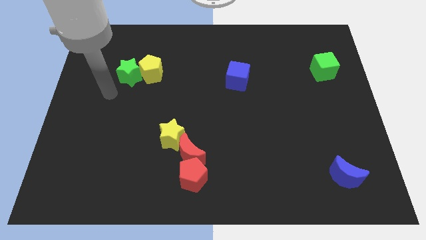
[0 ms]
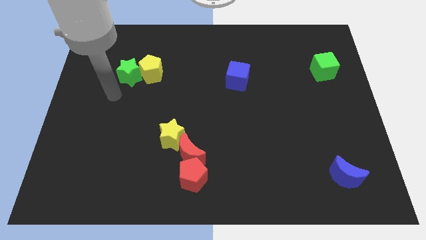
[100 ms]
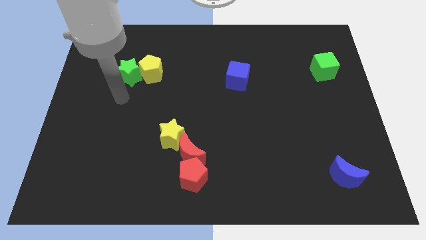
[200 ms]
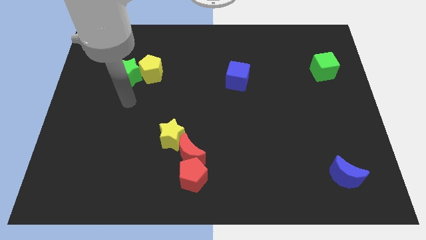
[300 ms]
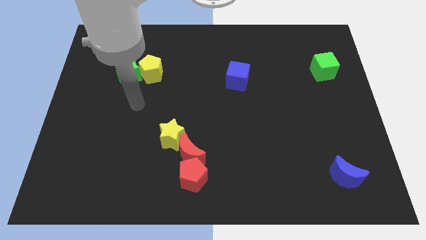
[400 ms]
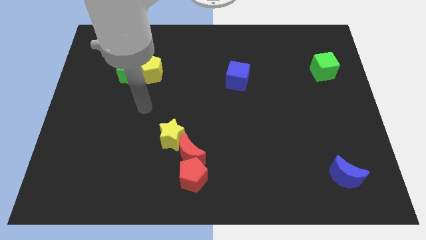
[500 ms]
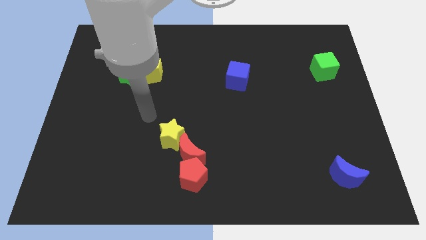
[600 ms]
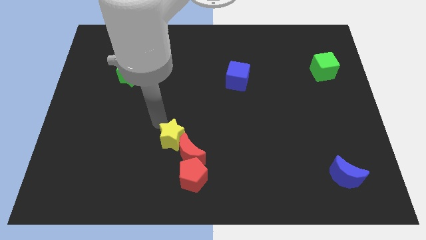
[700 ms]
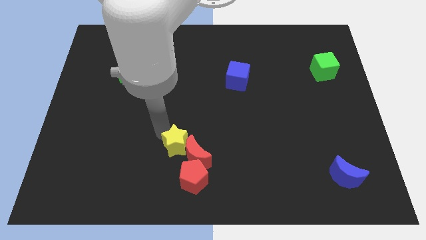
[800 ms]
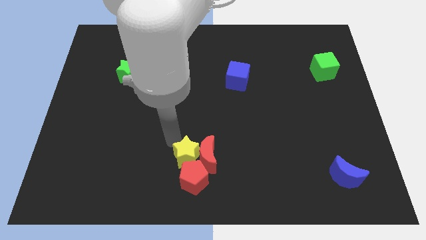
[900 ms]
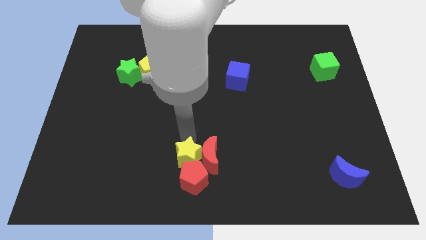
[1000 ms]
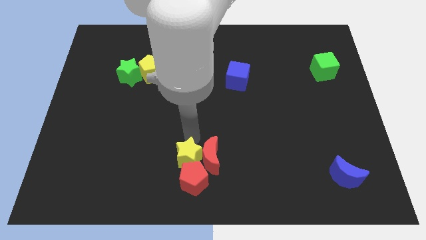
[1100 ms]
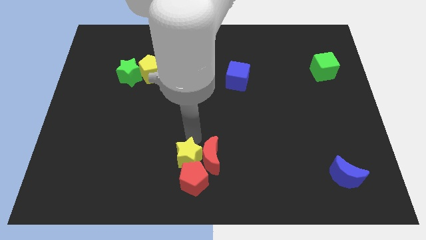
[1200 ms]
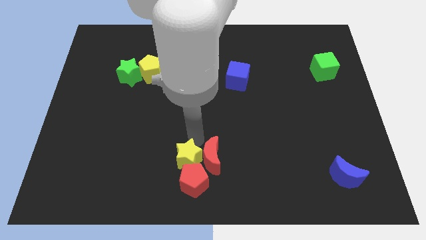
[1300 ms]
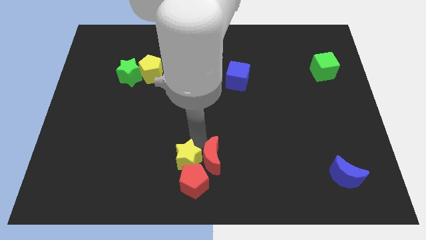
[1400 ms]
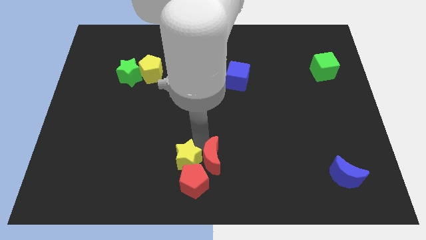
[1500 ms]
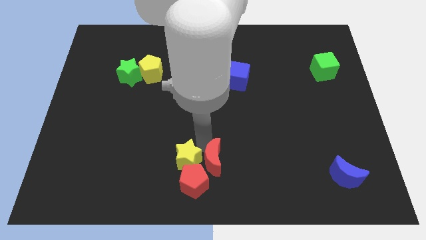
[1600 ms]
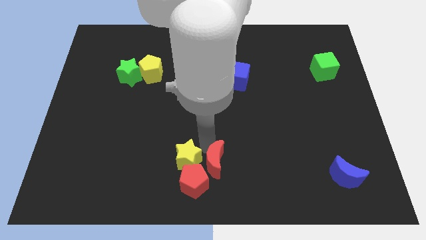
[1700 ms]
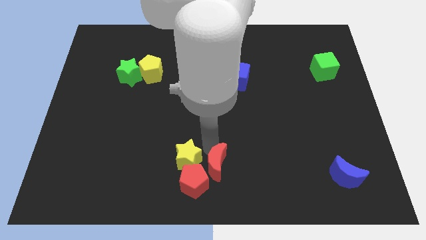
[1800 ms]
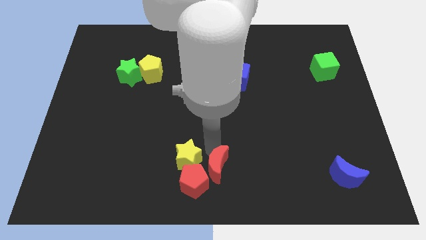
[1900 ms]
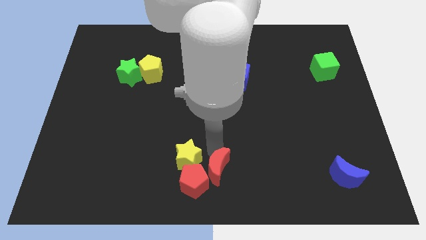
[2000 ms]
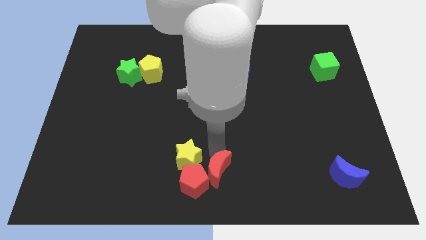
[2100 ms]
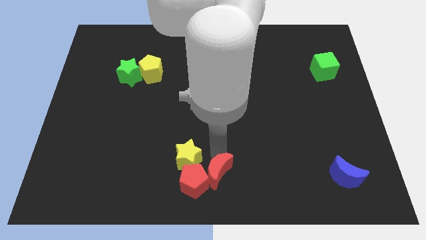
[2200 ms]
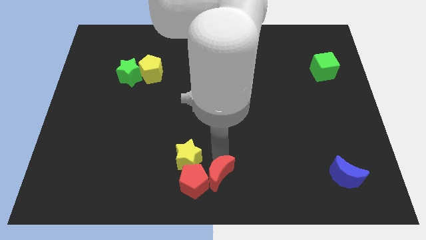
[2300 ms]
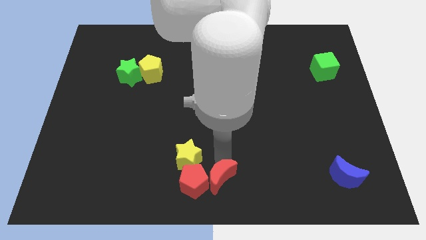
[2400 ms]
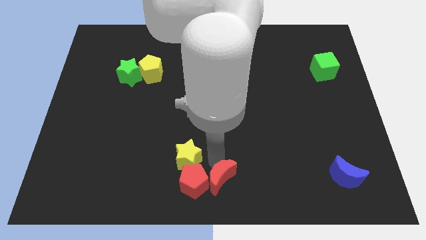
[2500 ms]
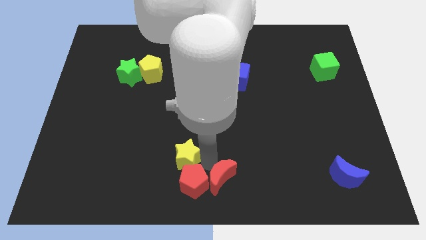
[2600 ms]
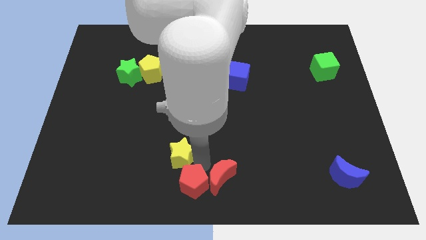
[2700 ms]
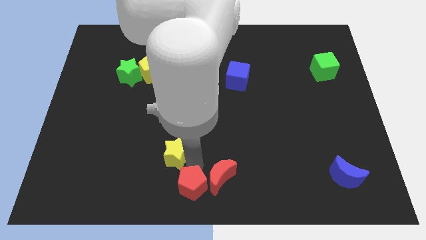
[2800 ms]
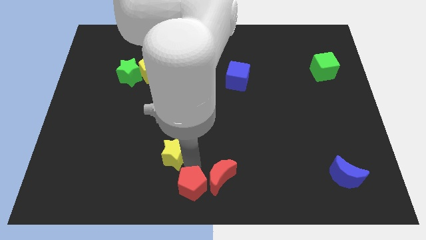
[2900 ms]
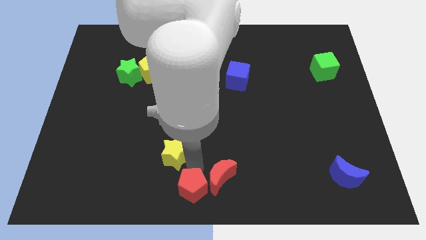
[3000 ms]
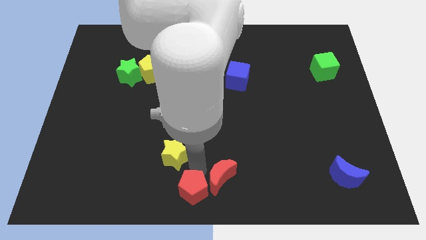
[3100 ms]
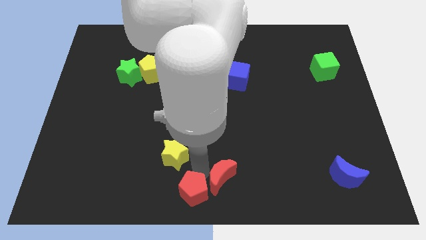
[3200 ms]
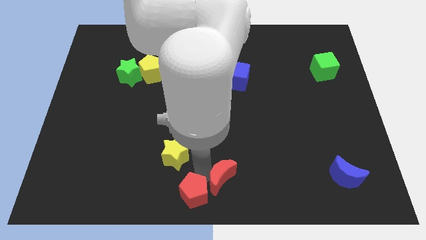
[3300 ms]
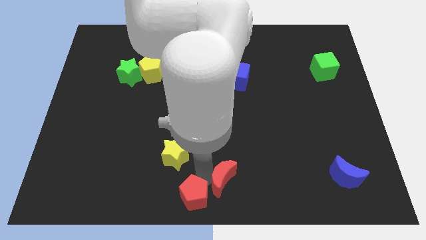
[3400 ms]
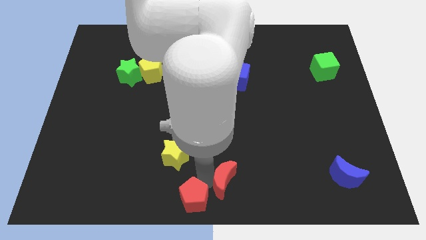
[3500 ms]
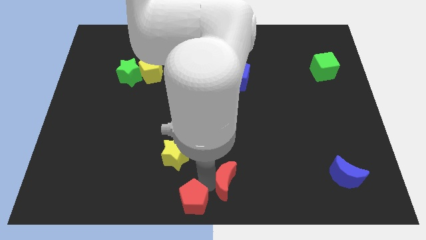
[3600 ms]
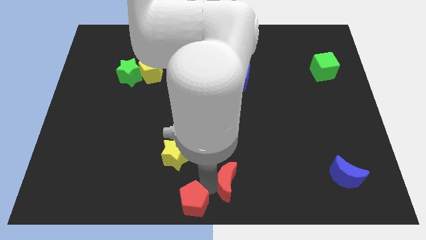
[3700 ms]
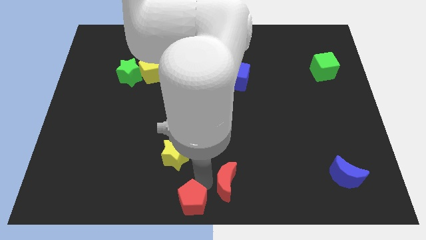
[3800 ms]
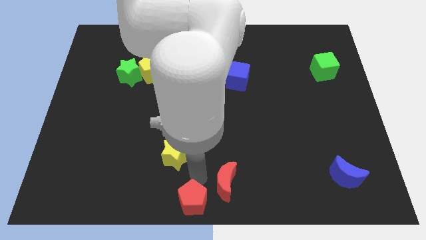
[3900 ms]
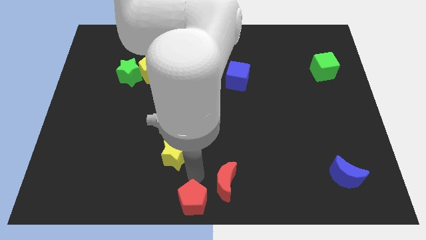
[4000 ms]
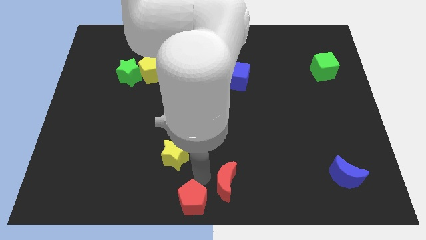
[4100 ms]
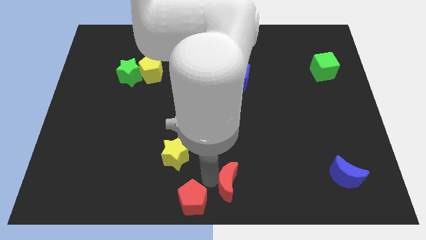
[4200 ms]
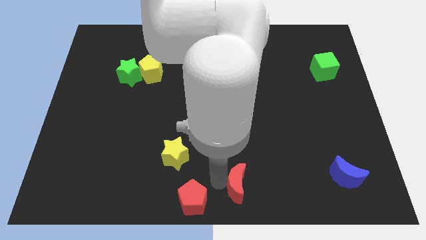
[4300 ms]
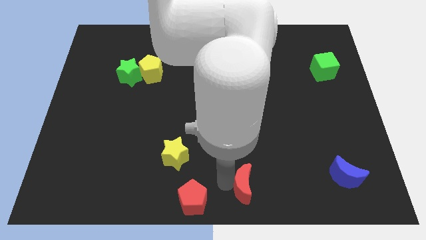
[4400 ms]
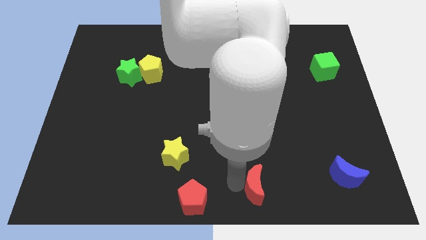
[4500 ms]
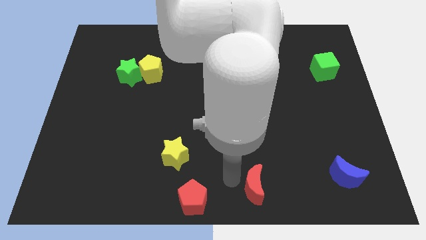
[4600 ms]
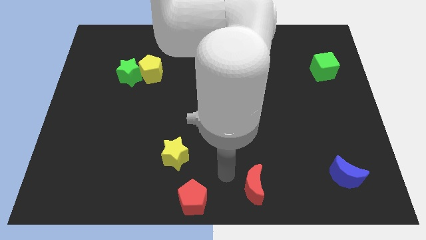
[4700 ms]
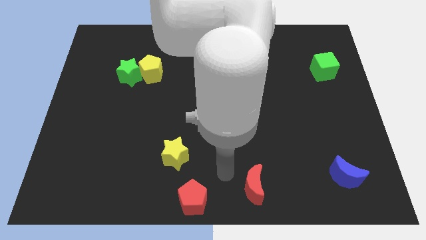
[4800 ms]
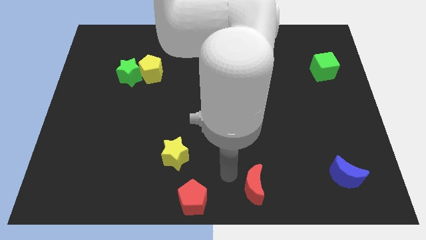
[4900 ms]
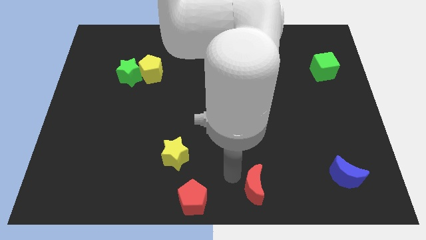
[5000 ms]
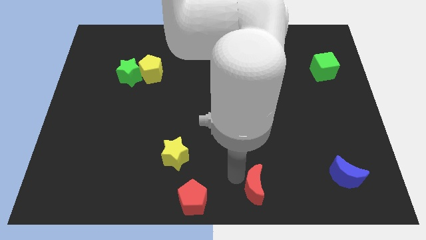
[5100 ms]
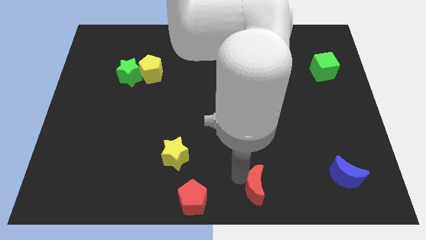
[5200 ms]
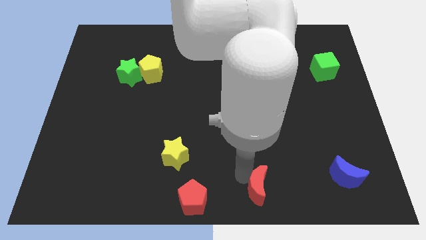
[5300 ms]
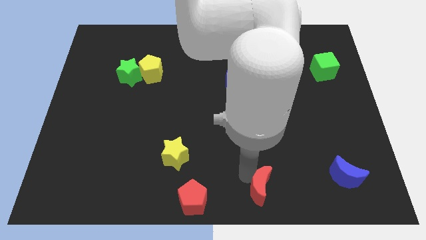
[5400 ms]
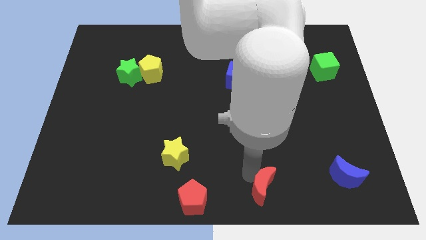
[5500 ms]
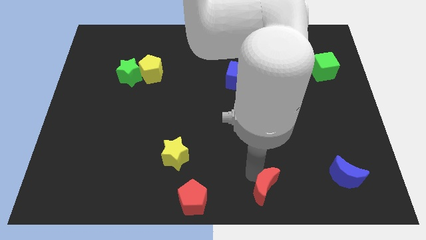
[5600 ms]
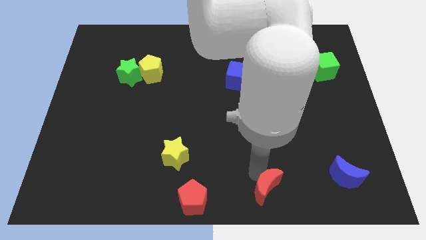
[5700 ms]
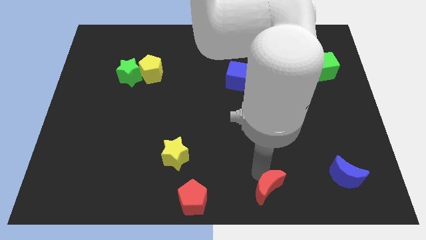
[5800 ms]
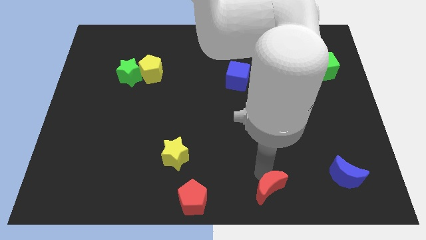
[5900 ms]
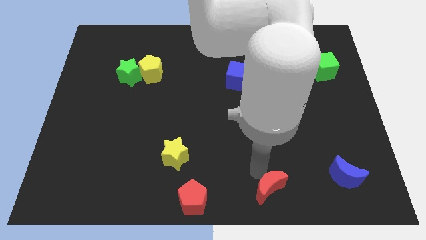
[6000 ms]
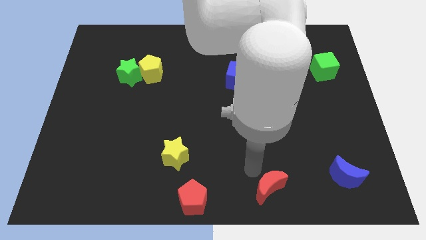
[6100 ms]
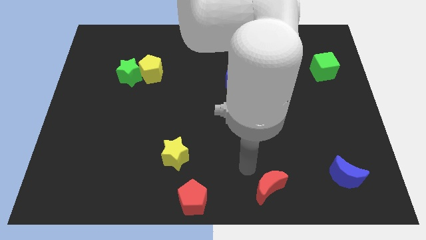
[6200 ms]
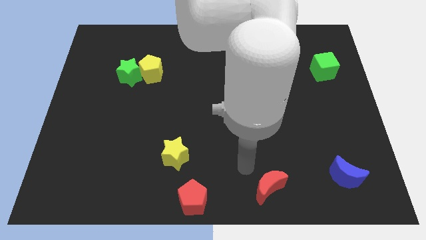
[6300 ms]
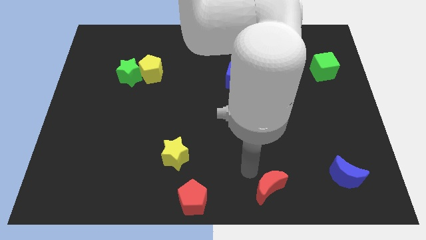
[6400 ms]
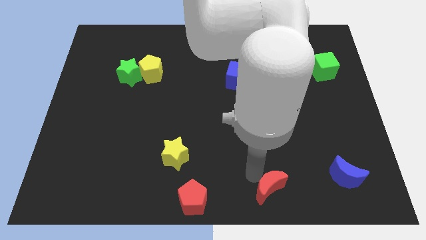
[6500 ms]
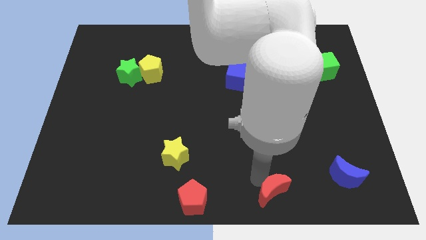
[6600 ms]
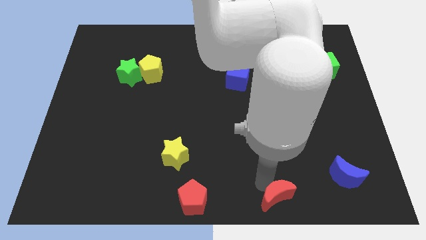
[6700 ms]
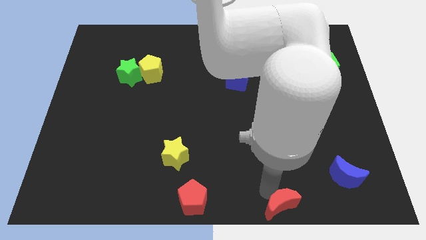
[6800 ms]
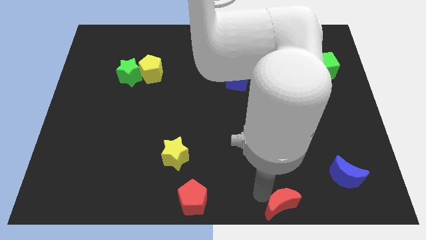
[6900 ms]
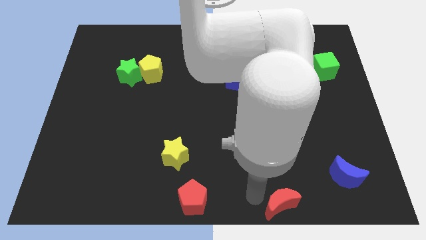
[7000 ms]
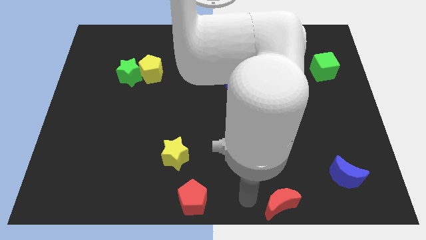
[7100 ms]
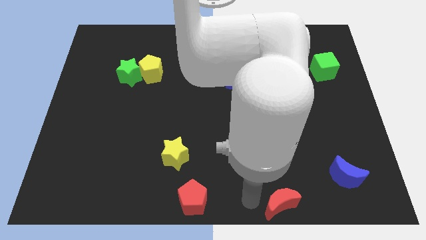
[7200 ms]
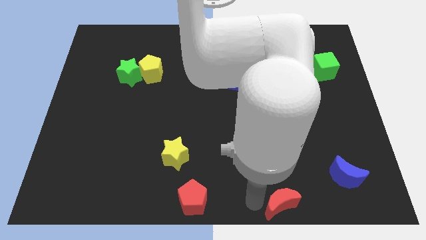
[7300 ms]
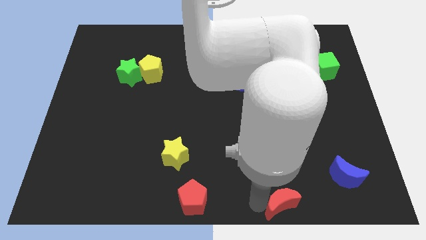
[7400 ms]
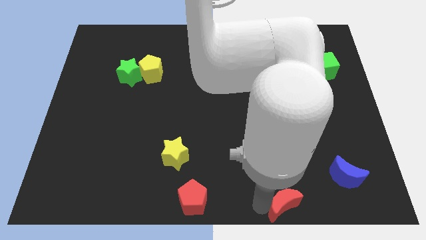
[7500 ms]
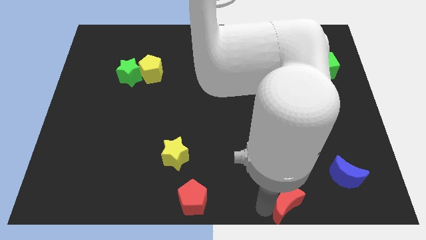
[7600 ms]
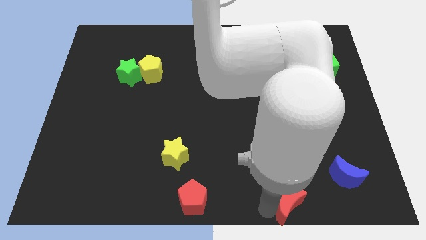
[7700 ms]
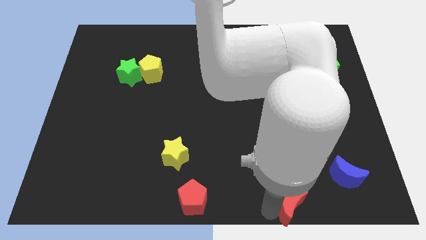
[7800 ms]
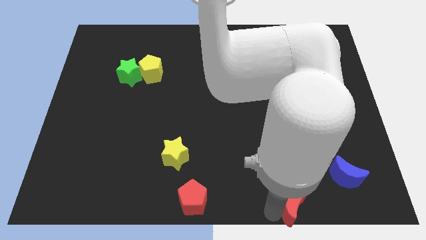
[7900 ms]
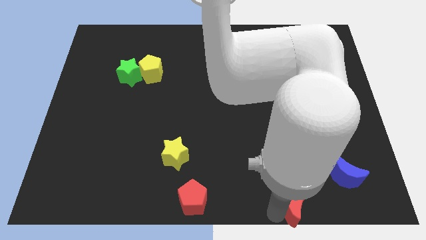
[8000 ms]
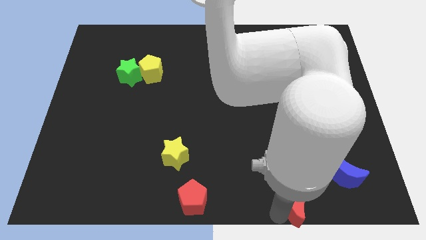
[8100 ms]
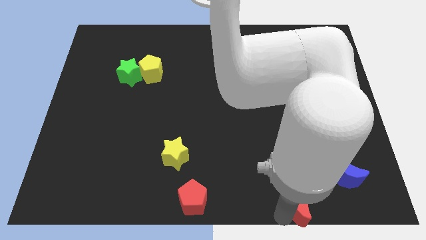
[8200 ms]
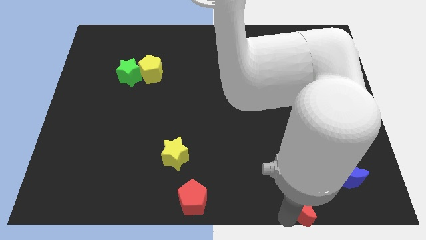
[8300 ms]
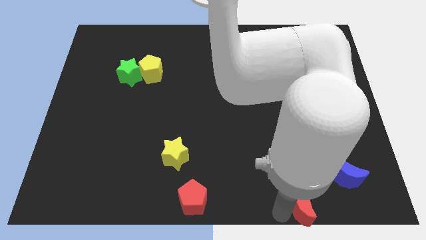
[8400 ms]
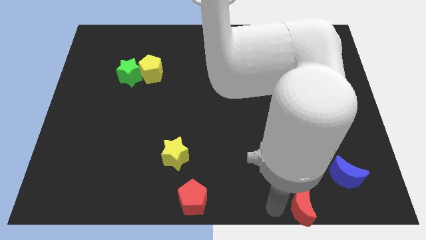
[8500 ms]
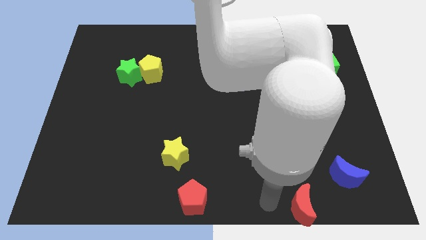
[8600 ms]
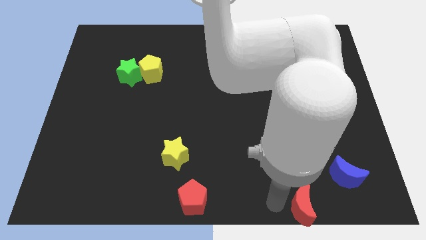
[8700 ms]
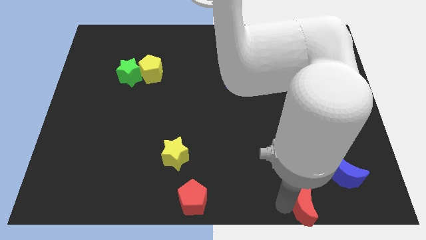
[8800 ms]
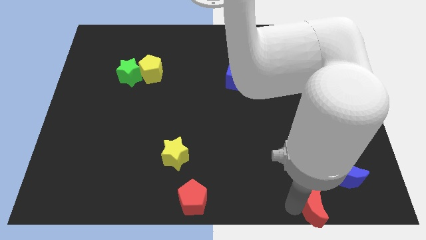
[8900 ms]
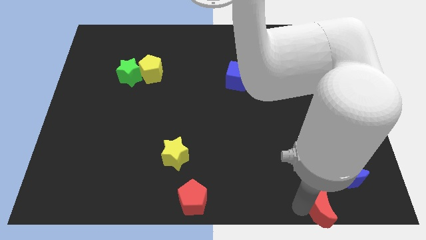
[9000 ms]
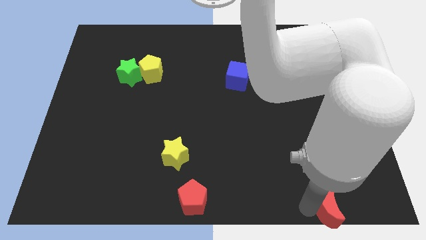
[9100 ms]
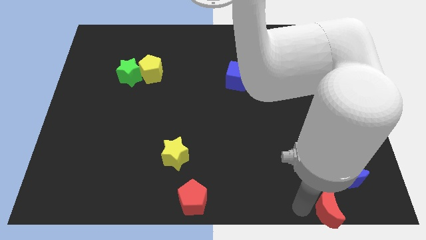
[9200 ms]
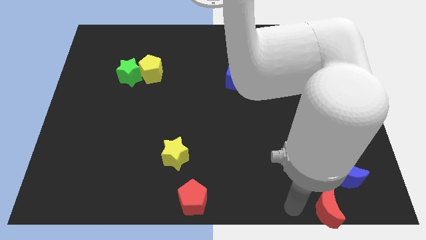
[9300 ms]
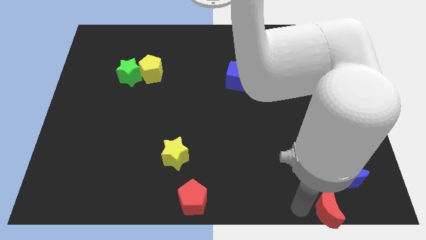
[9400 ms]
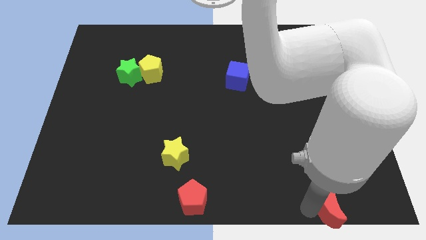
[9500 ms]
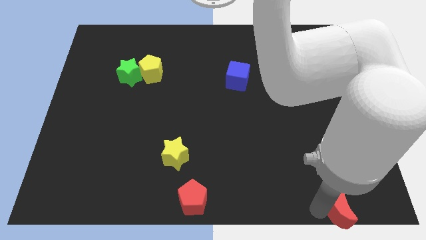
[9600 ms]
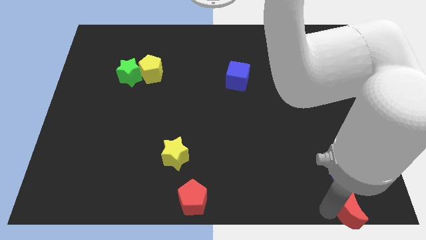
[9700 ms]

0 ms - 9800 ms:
slide the red moon to the bottom right
